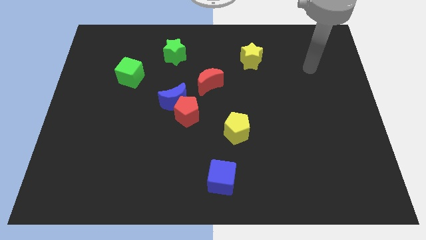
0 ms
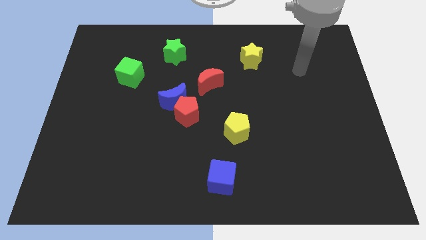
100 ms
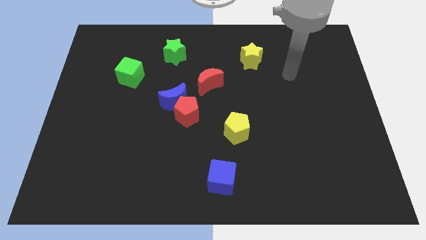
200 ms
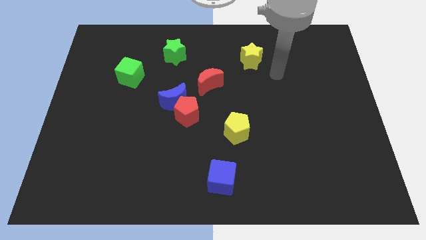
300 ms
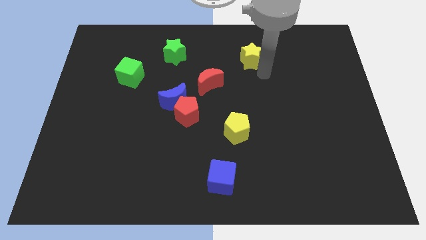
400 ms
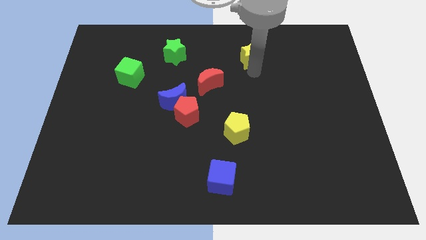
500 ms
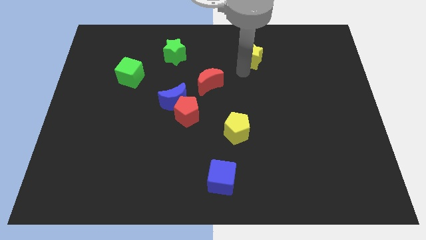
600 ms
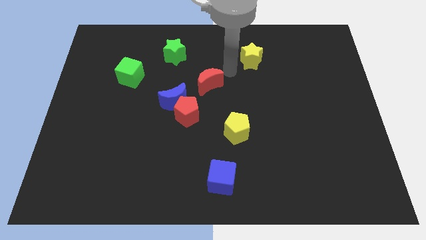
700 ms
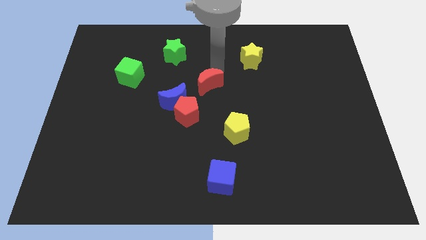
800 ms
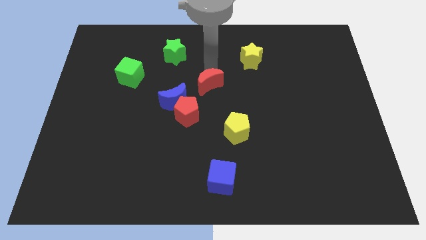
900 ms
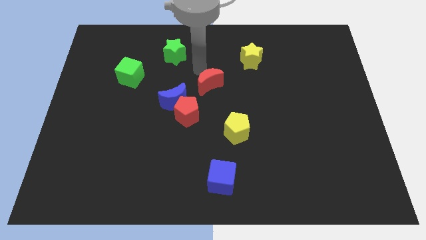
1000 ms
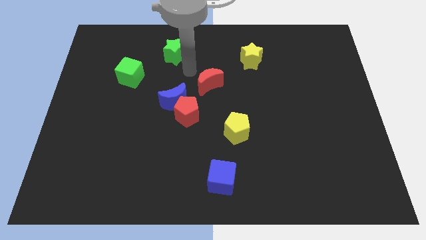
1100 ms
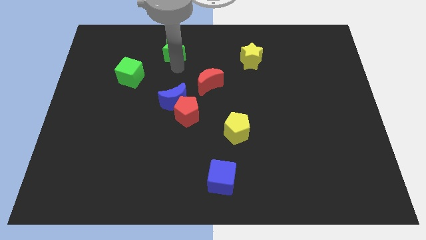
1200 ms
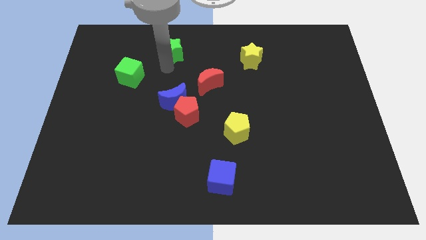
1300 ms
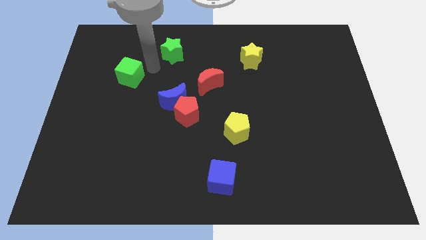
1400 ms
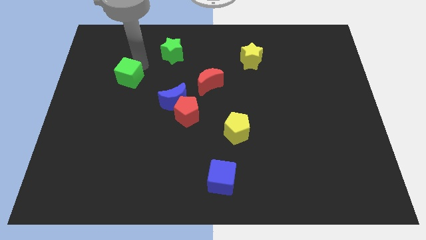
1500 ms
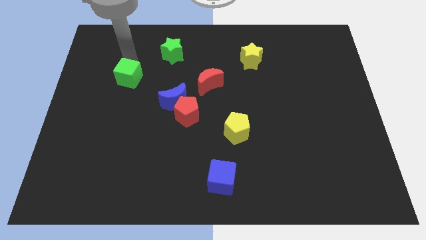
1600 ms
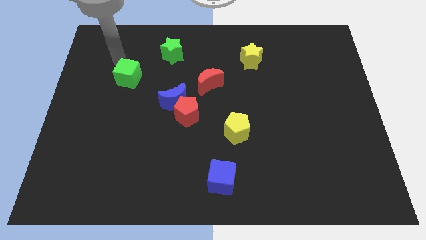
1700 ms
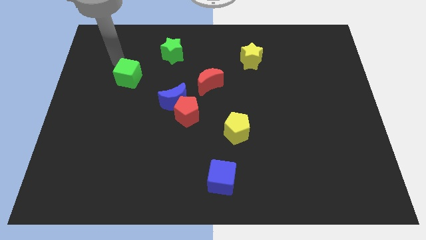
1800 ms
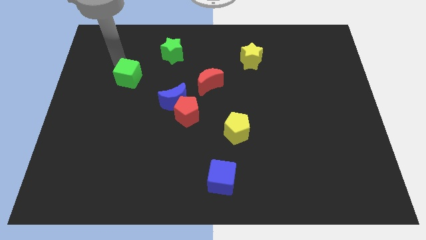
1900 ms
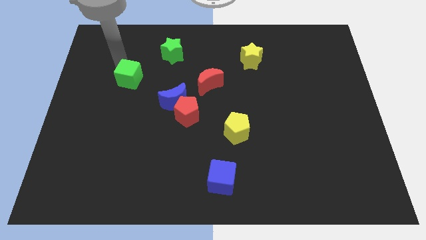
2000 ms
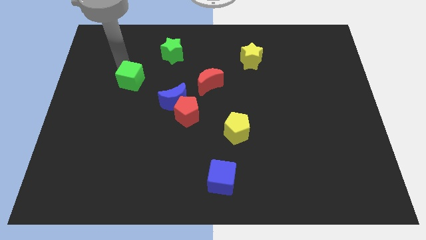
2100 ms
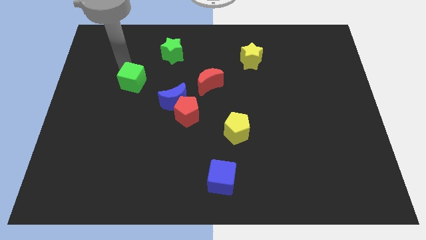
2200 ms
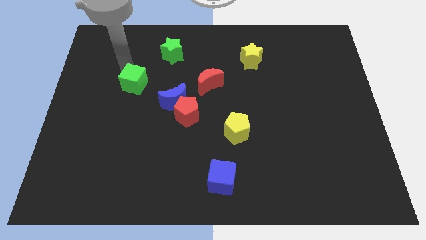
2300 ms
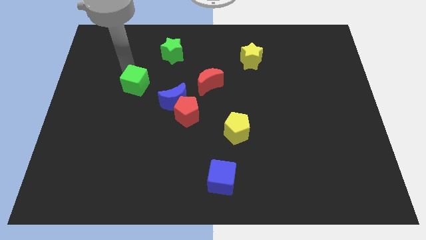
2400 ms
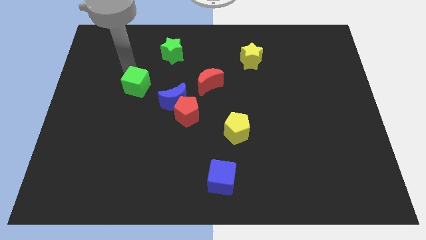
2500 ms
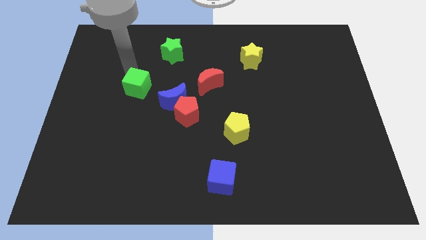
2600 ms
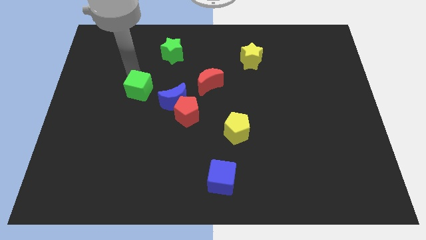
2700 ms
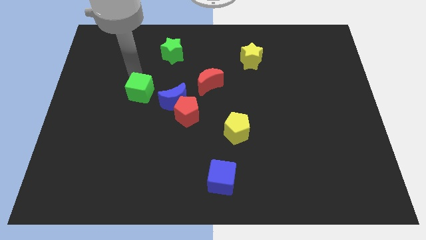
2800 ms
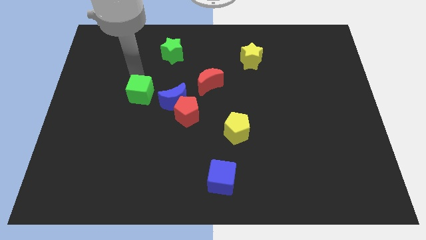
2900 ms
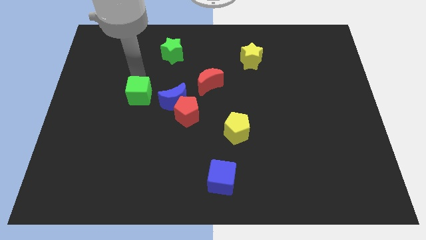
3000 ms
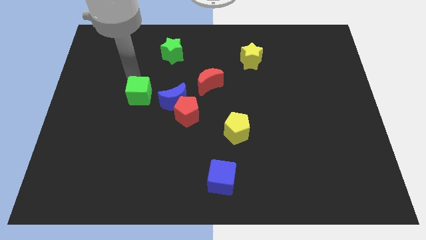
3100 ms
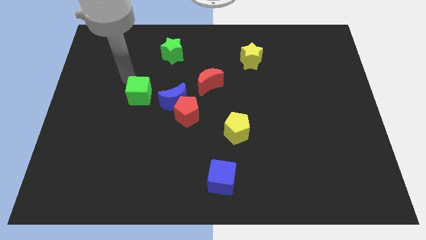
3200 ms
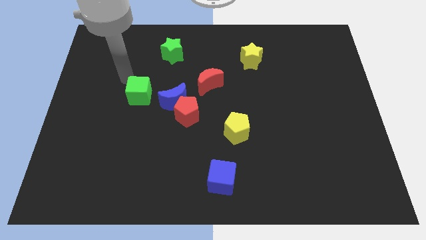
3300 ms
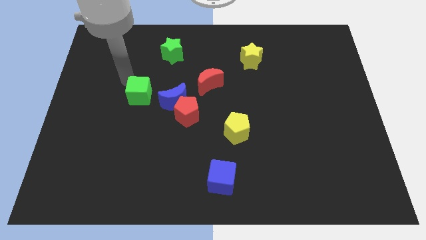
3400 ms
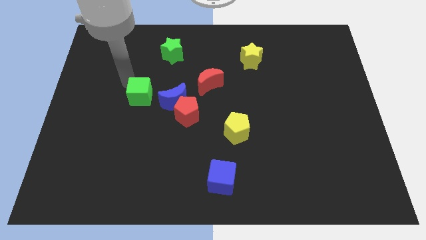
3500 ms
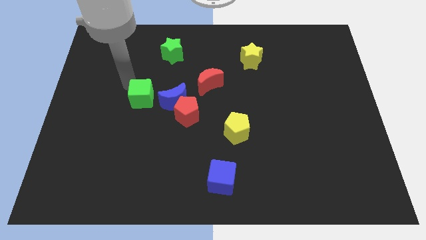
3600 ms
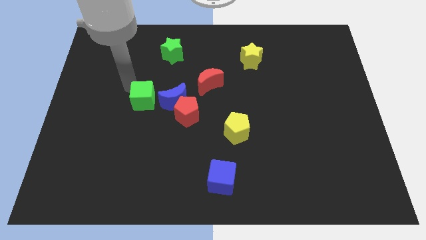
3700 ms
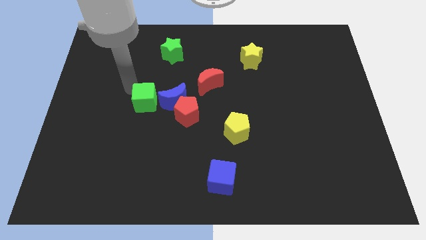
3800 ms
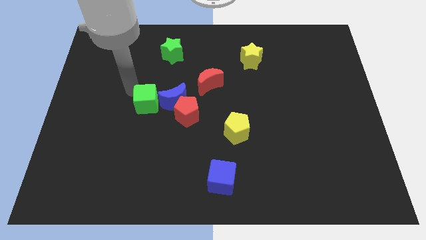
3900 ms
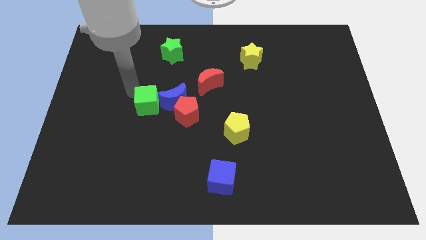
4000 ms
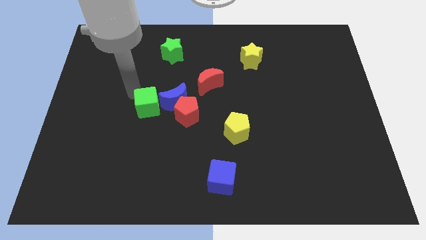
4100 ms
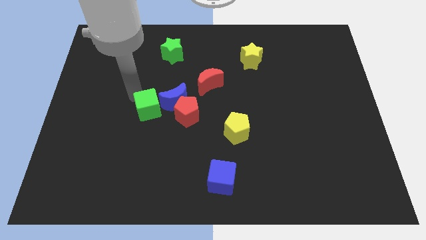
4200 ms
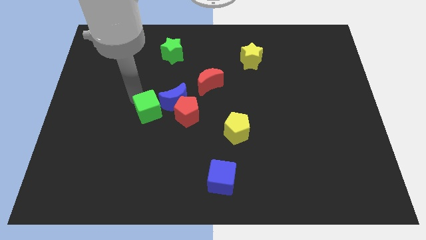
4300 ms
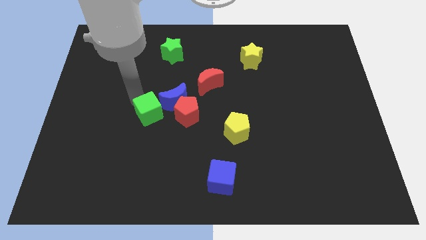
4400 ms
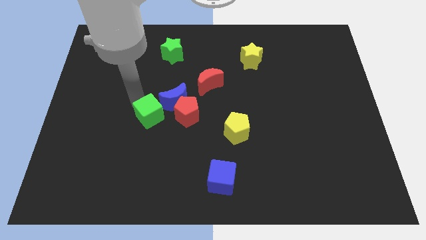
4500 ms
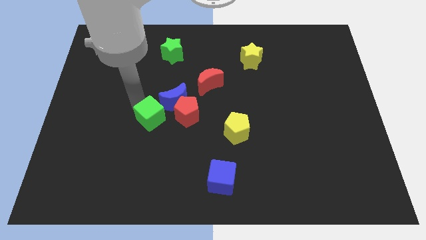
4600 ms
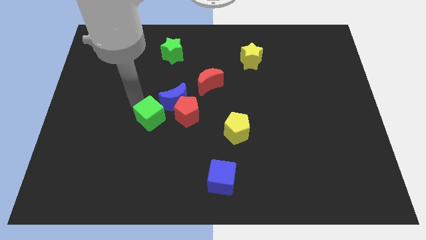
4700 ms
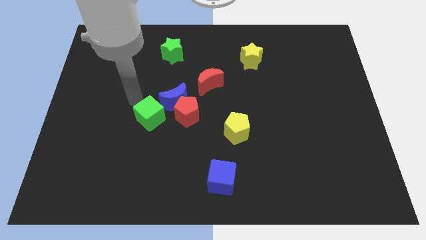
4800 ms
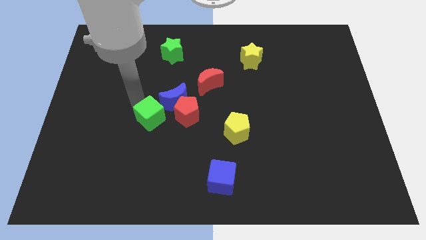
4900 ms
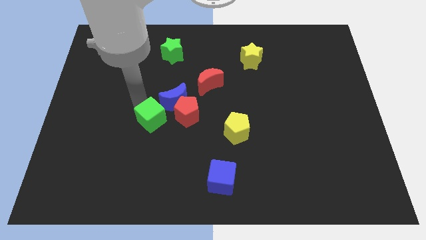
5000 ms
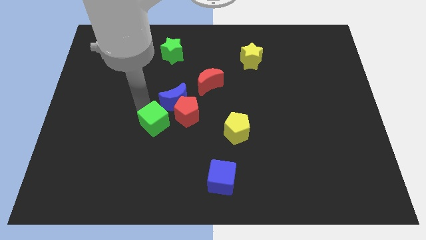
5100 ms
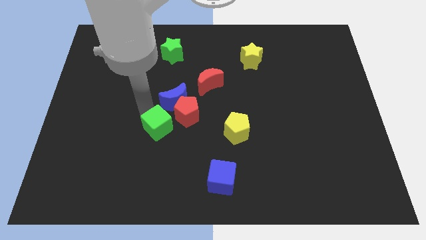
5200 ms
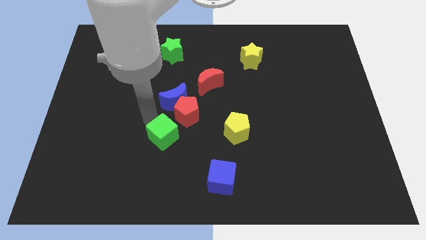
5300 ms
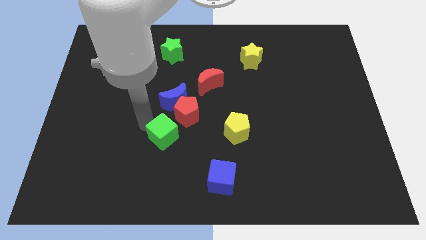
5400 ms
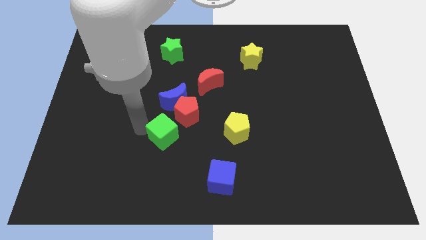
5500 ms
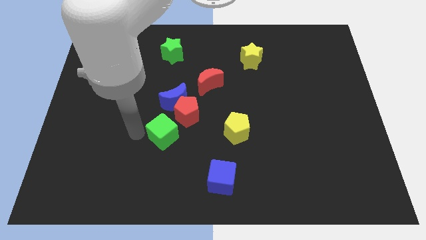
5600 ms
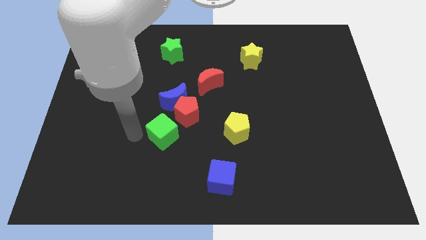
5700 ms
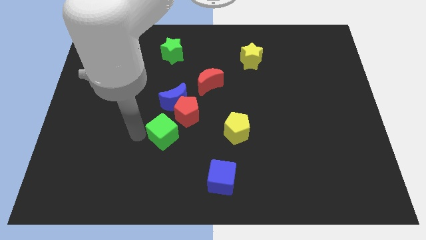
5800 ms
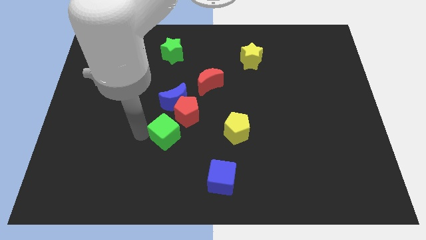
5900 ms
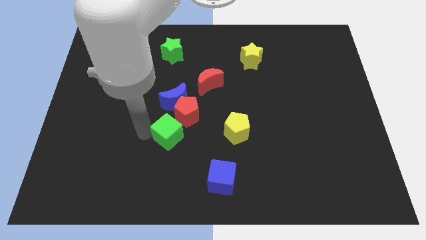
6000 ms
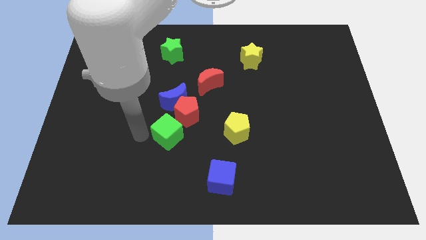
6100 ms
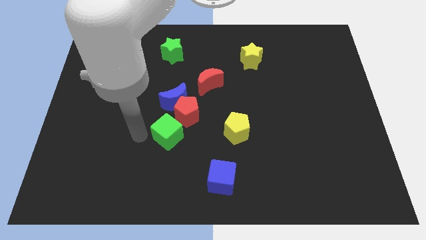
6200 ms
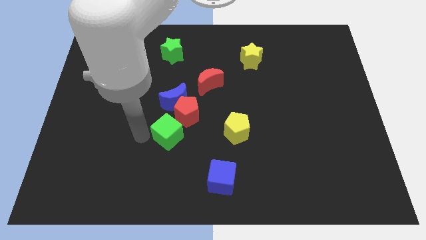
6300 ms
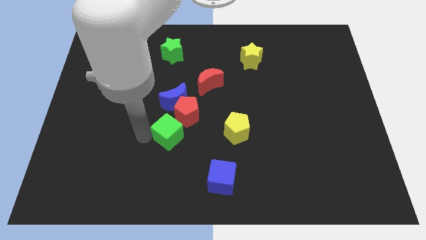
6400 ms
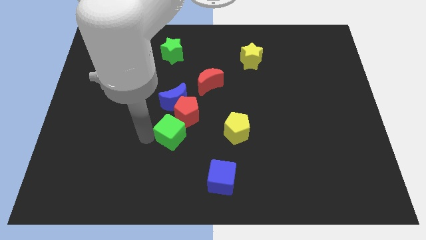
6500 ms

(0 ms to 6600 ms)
move the green cube downwards and to the right diagonally

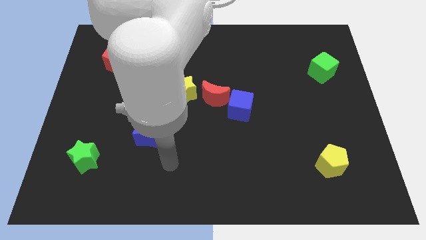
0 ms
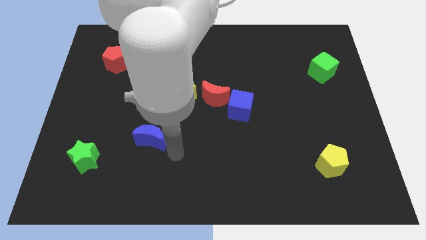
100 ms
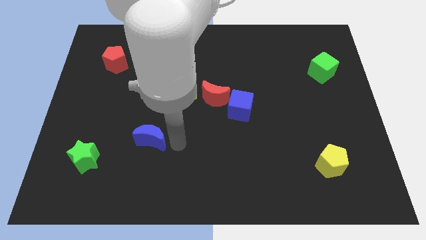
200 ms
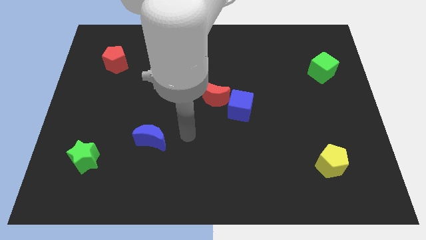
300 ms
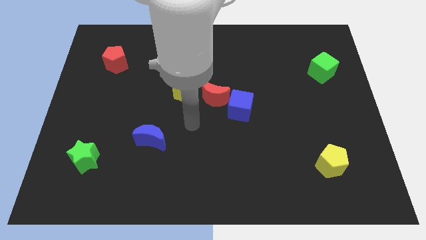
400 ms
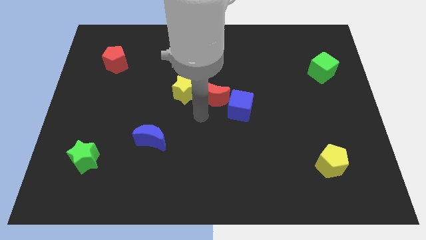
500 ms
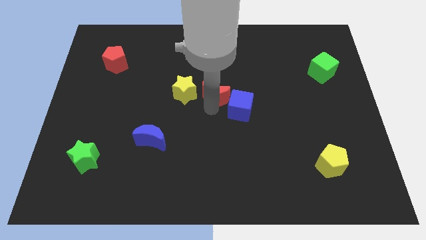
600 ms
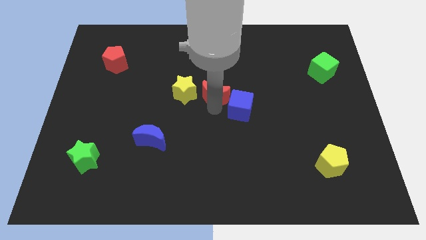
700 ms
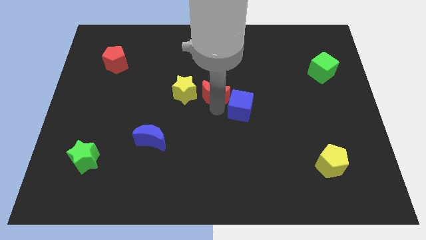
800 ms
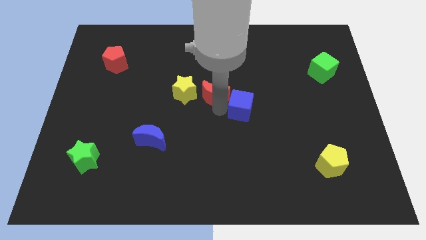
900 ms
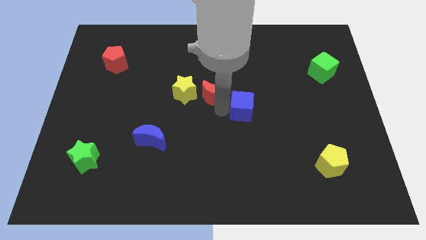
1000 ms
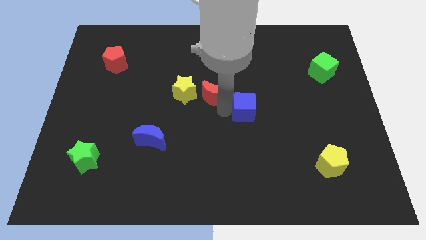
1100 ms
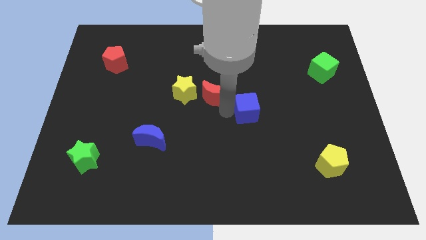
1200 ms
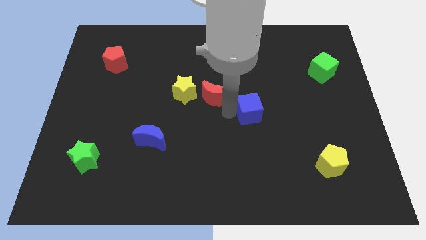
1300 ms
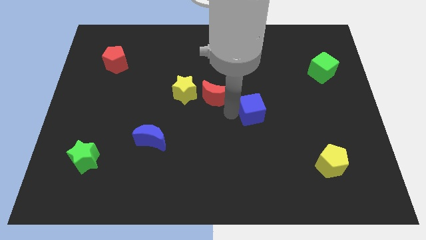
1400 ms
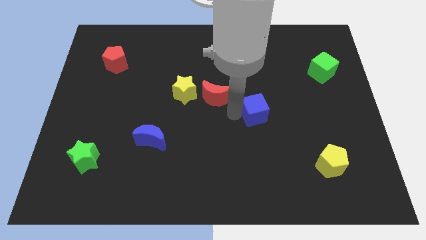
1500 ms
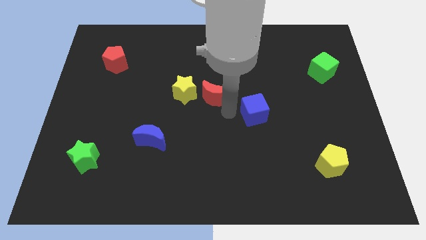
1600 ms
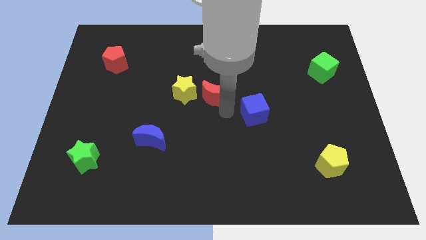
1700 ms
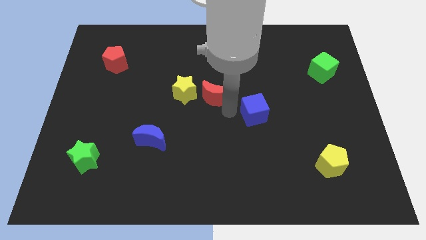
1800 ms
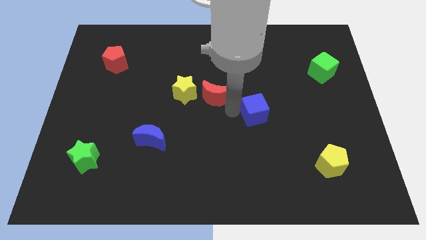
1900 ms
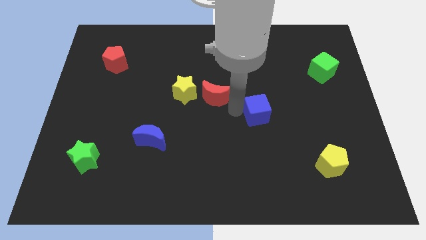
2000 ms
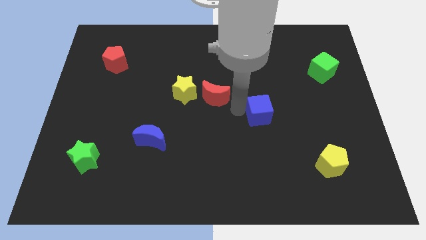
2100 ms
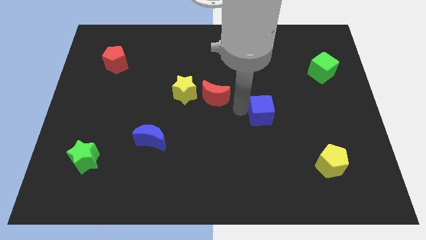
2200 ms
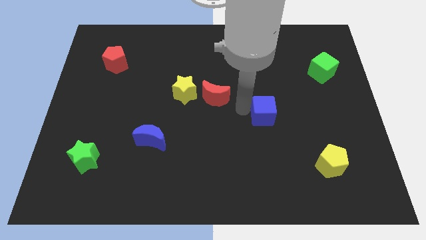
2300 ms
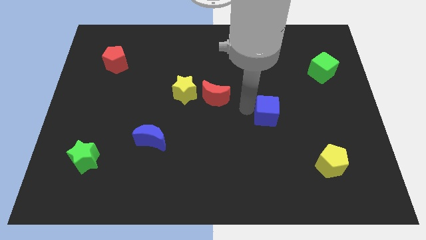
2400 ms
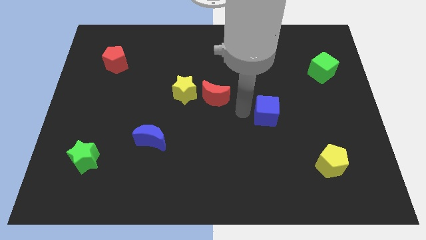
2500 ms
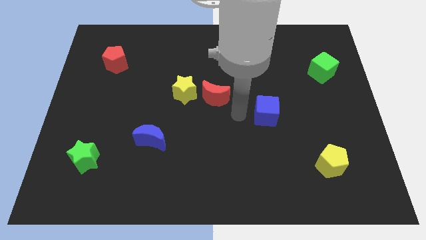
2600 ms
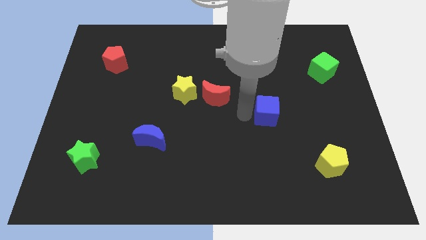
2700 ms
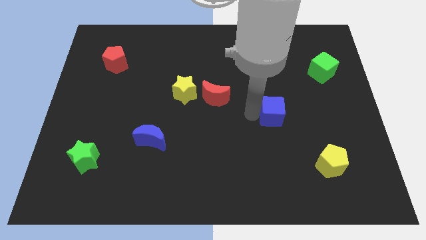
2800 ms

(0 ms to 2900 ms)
slide the blue cube a bit to the right
